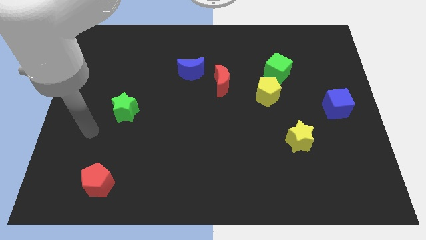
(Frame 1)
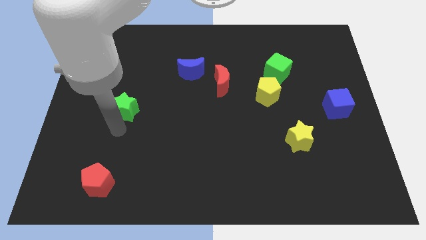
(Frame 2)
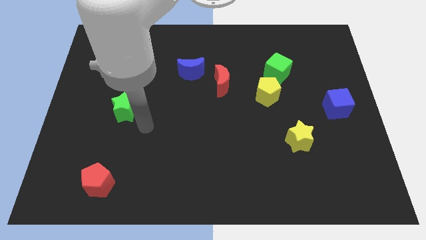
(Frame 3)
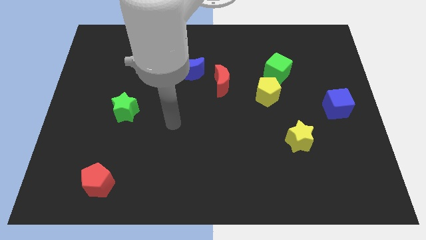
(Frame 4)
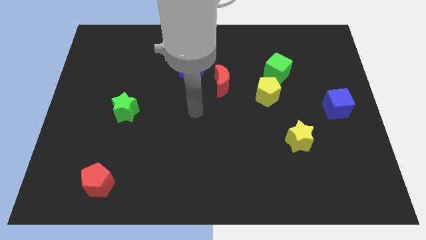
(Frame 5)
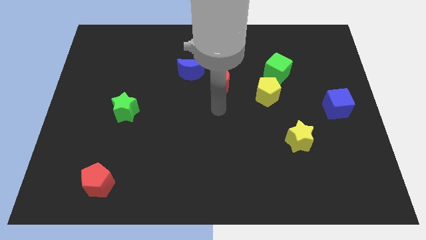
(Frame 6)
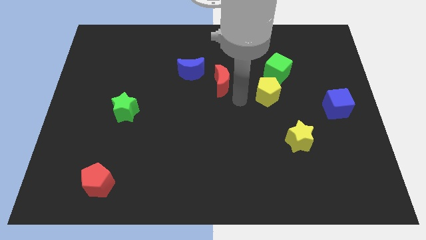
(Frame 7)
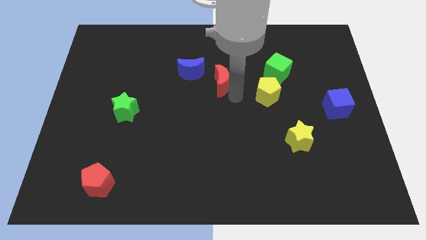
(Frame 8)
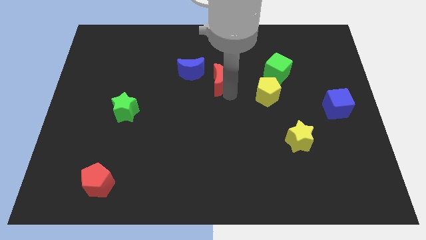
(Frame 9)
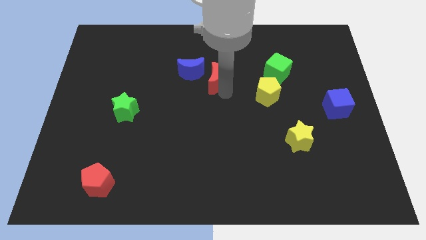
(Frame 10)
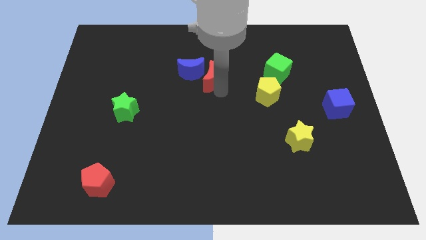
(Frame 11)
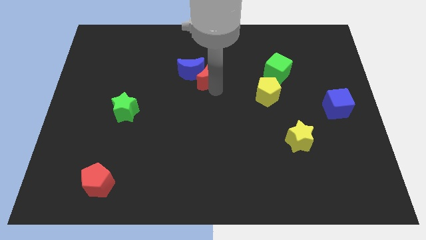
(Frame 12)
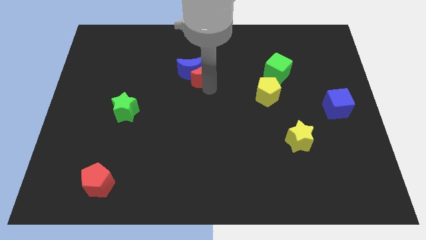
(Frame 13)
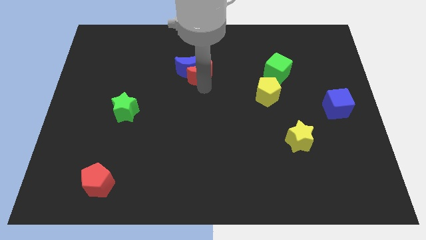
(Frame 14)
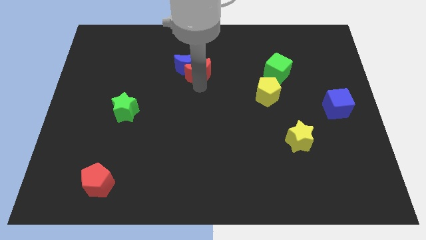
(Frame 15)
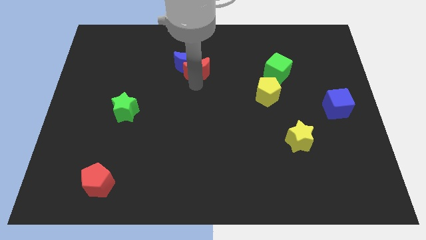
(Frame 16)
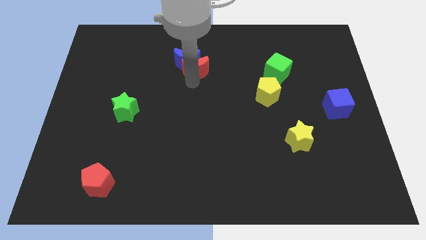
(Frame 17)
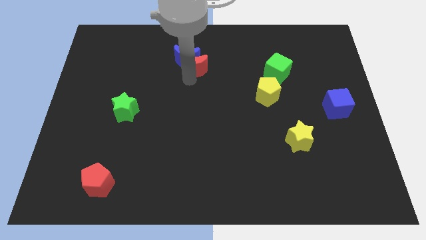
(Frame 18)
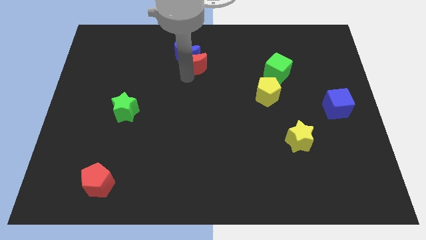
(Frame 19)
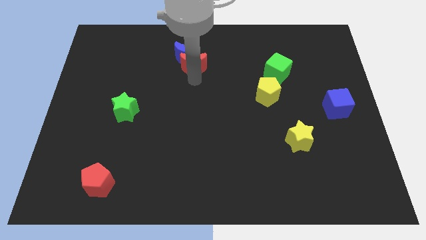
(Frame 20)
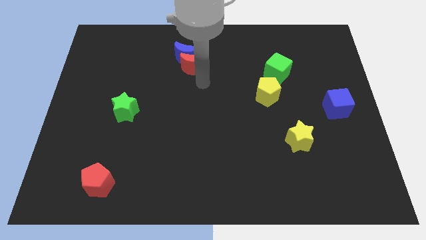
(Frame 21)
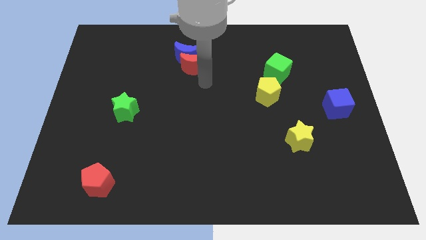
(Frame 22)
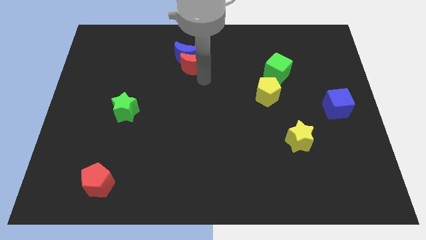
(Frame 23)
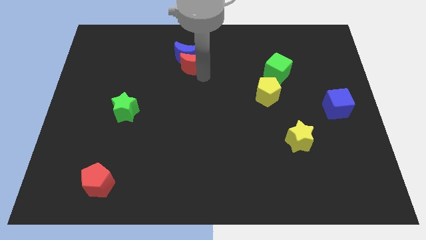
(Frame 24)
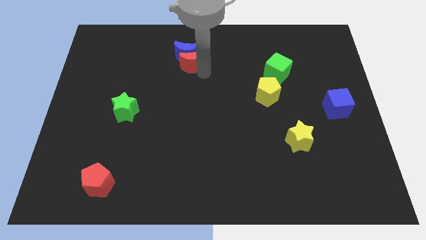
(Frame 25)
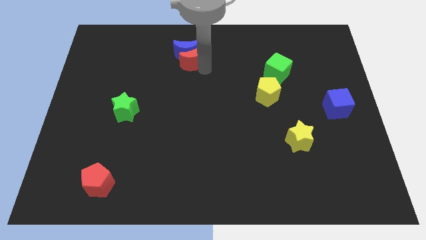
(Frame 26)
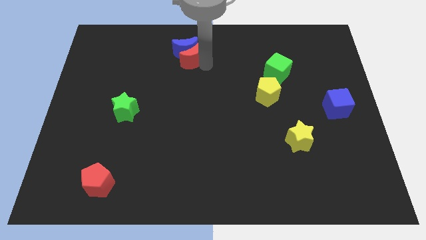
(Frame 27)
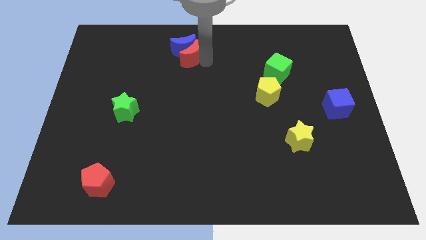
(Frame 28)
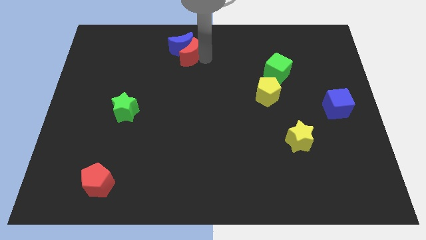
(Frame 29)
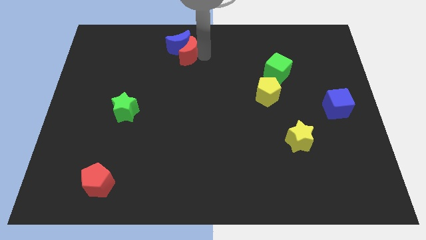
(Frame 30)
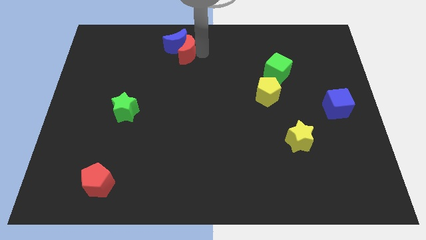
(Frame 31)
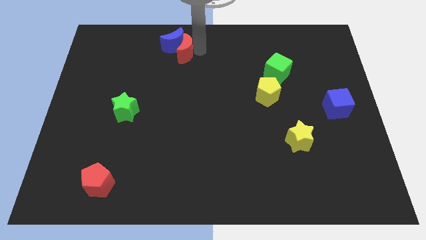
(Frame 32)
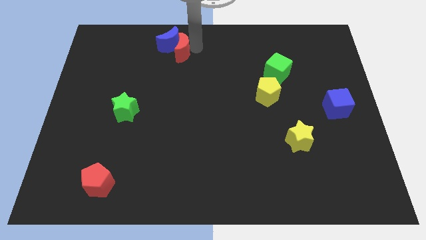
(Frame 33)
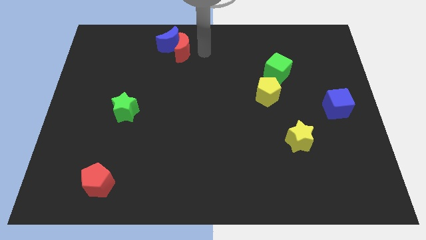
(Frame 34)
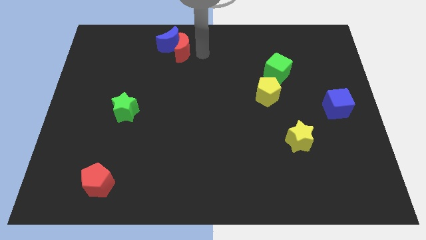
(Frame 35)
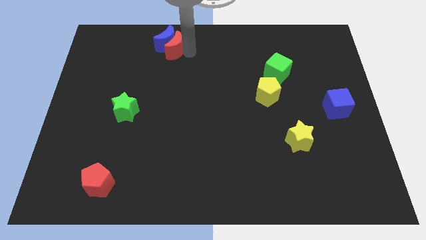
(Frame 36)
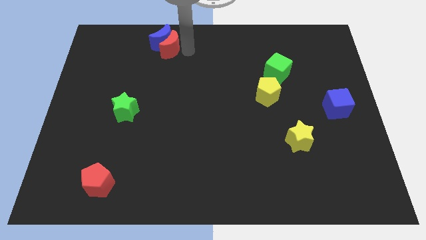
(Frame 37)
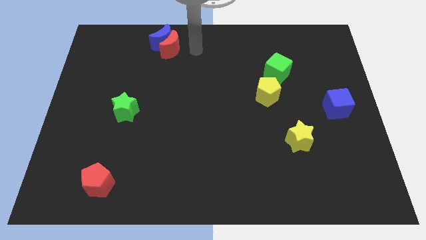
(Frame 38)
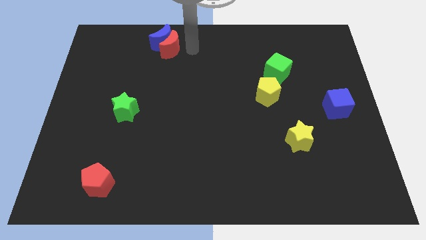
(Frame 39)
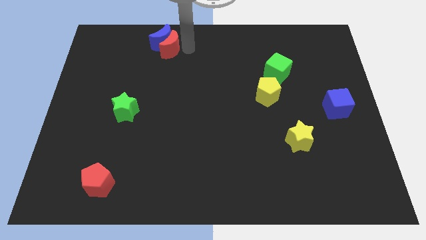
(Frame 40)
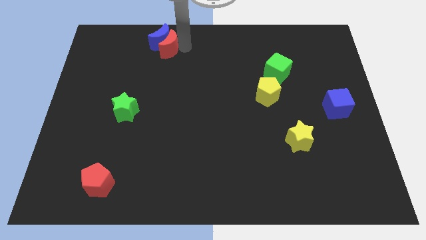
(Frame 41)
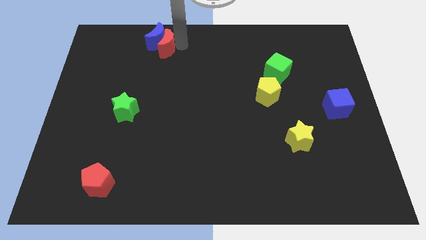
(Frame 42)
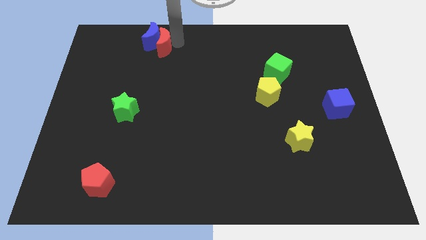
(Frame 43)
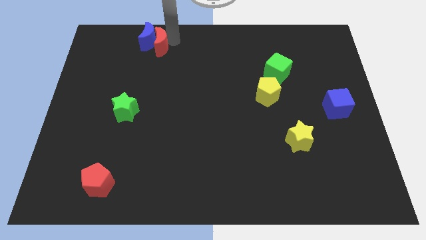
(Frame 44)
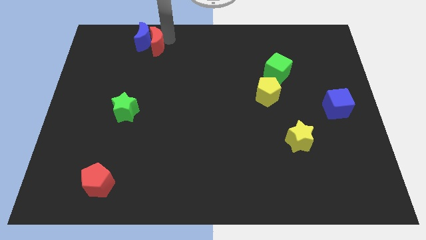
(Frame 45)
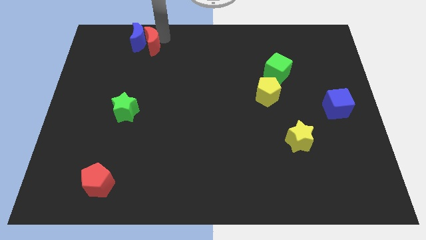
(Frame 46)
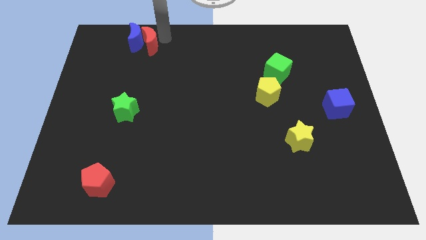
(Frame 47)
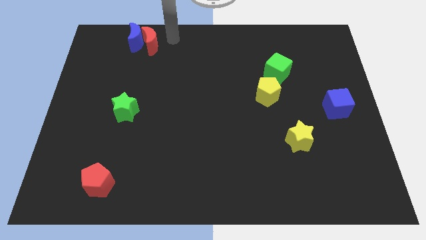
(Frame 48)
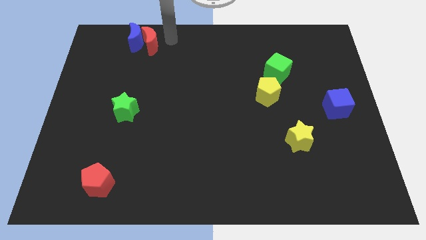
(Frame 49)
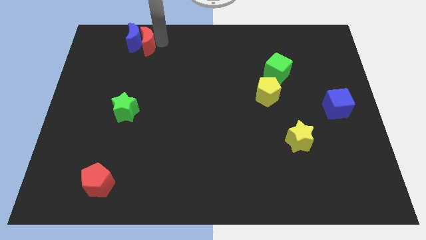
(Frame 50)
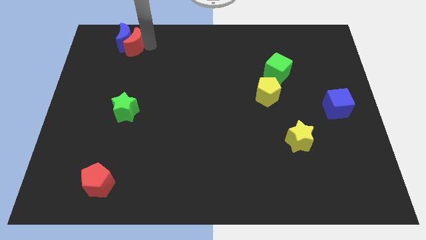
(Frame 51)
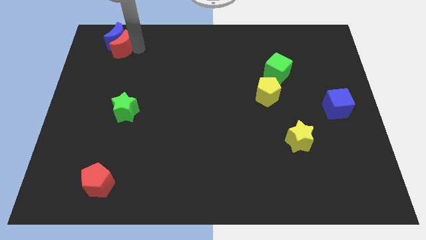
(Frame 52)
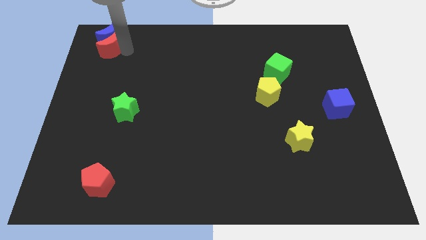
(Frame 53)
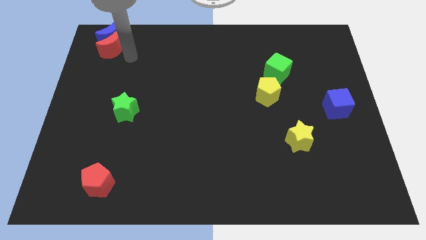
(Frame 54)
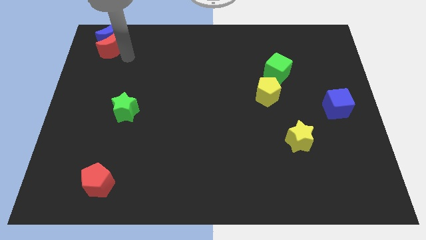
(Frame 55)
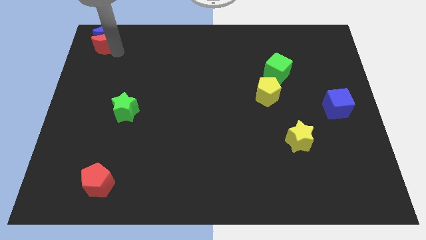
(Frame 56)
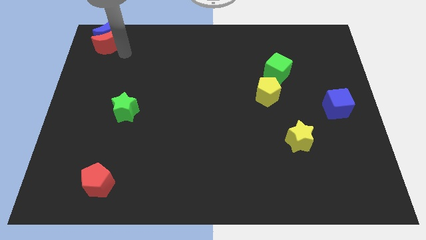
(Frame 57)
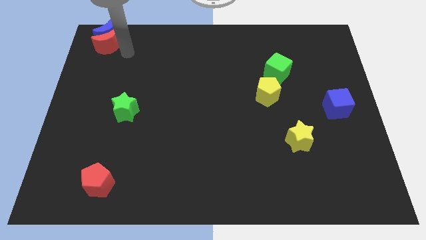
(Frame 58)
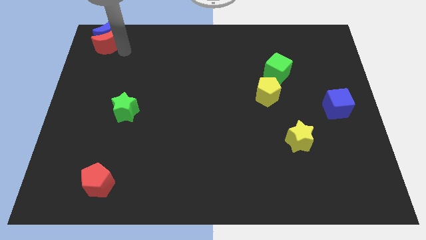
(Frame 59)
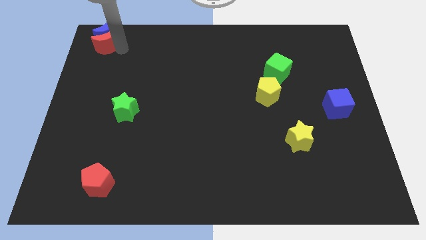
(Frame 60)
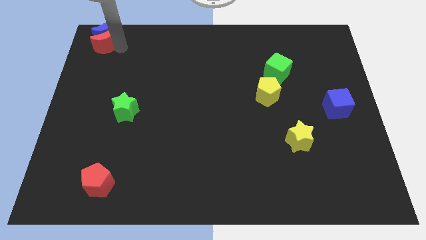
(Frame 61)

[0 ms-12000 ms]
slide the red moon to the upper left corner
